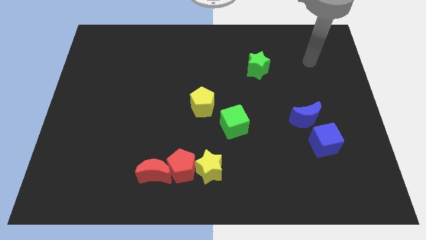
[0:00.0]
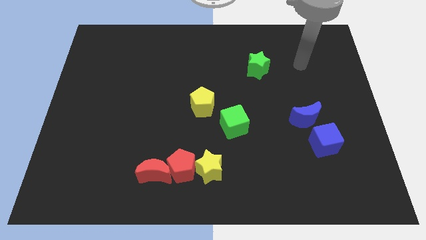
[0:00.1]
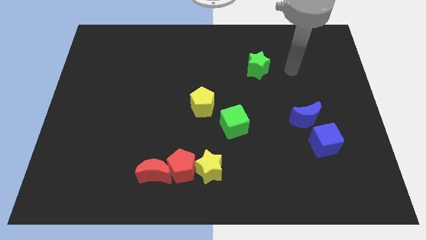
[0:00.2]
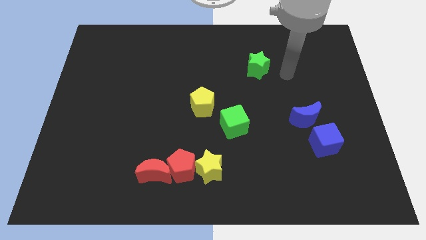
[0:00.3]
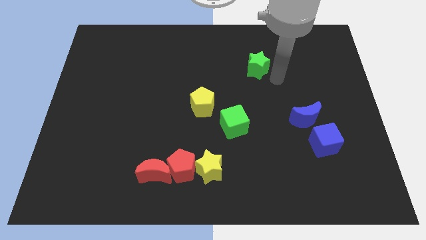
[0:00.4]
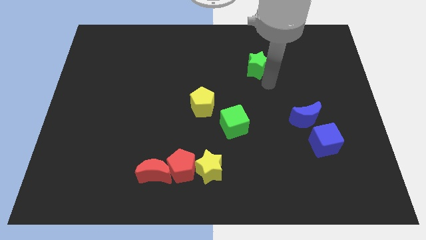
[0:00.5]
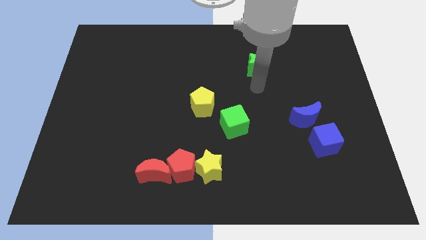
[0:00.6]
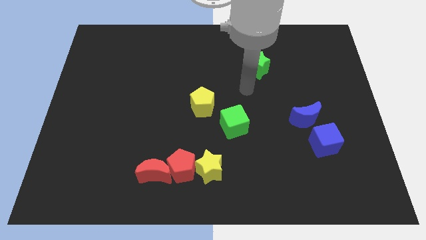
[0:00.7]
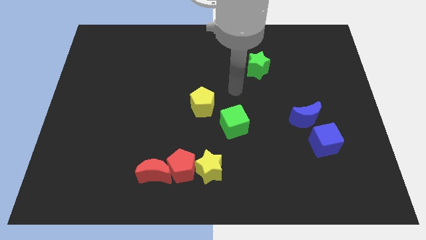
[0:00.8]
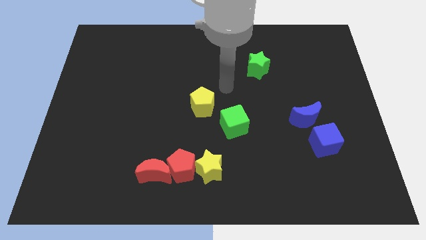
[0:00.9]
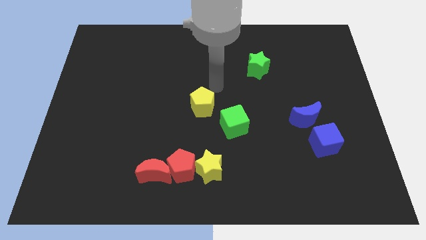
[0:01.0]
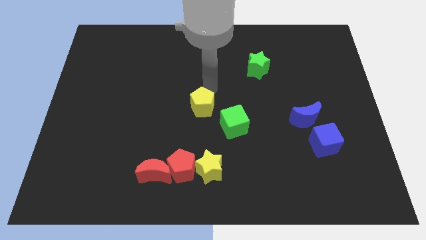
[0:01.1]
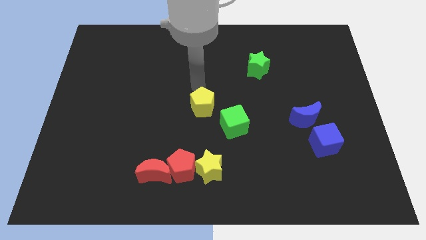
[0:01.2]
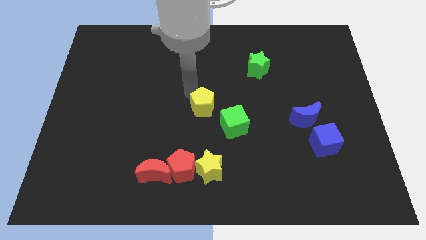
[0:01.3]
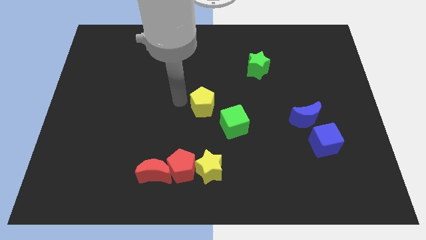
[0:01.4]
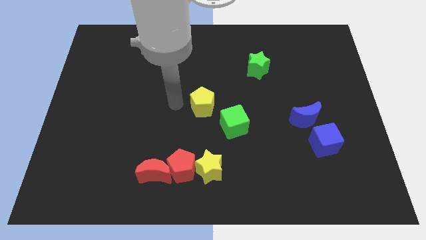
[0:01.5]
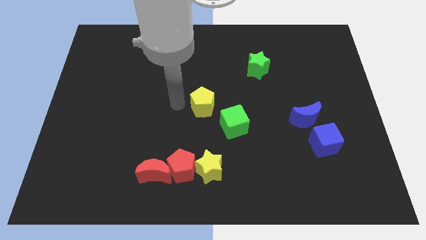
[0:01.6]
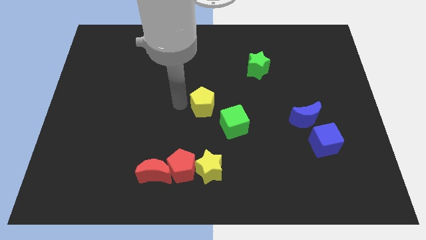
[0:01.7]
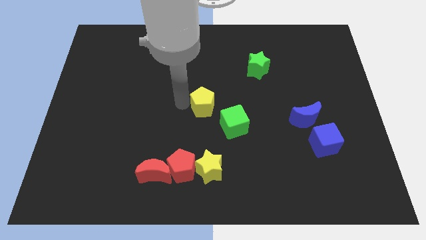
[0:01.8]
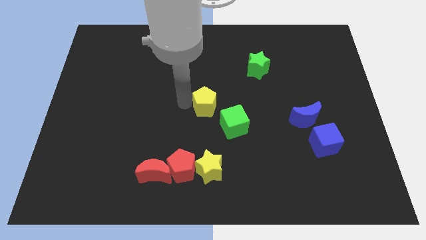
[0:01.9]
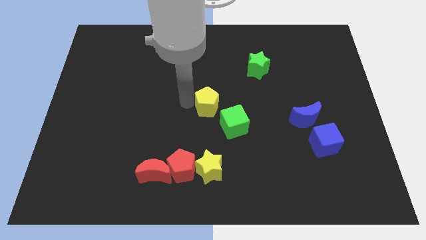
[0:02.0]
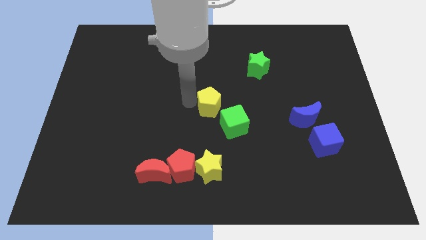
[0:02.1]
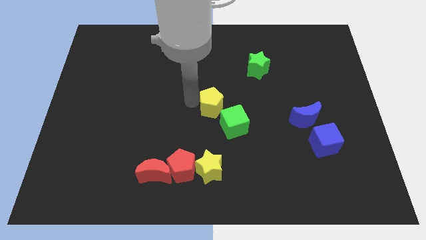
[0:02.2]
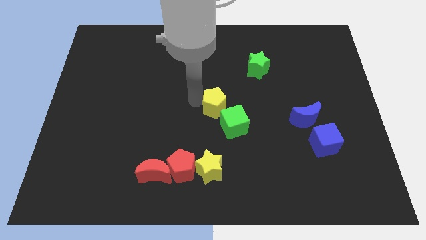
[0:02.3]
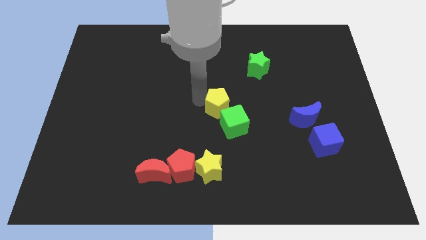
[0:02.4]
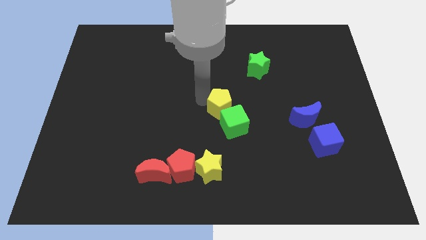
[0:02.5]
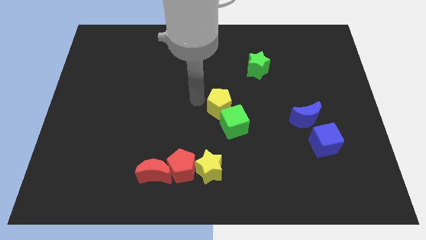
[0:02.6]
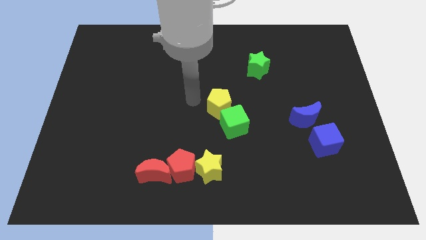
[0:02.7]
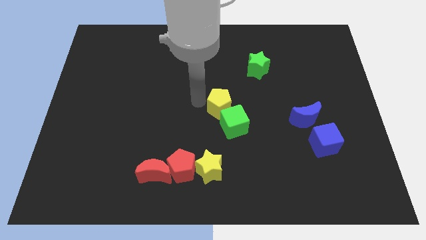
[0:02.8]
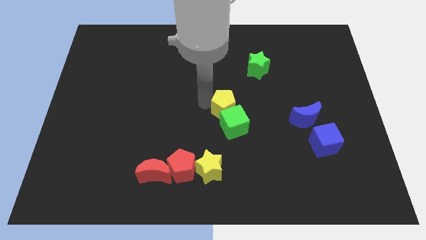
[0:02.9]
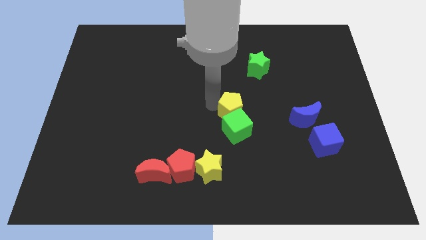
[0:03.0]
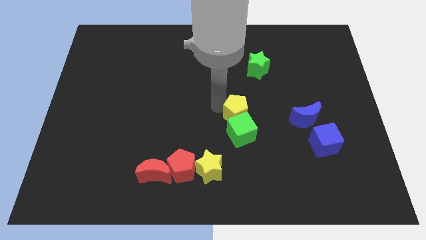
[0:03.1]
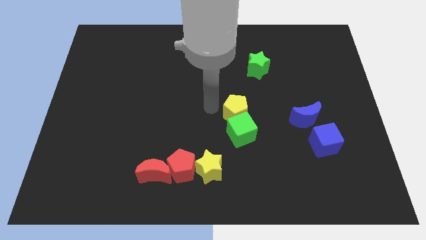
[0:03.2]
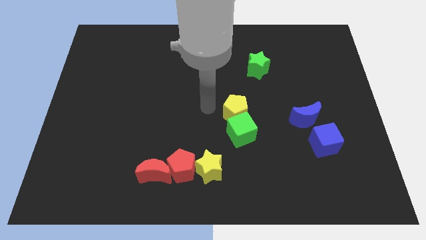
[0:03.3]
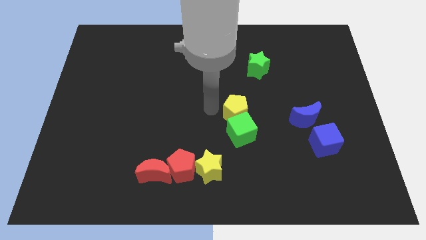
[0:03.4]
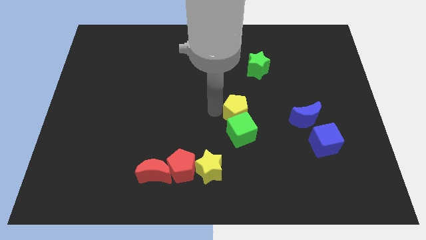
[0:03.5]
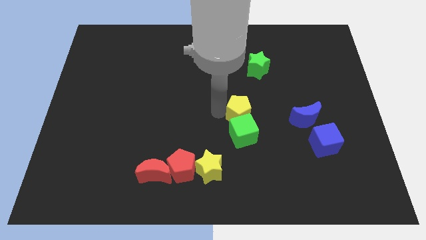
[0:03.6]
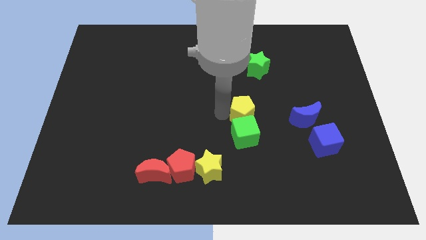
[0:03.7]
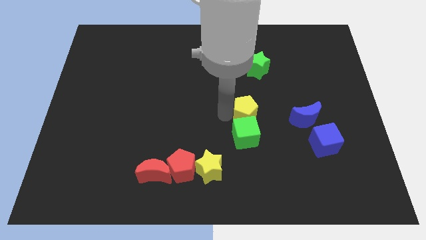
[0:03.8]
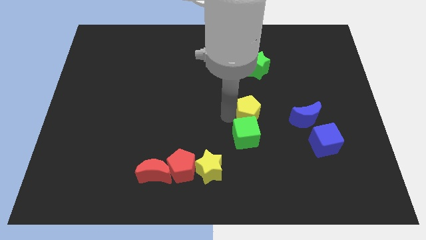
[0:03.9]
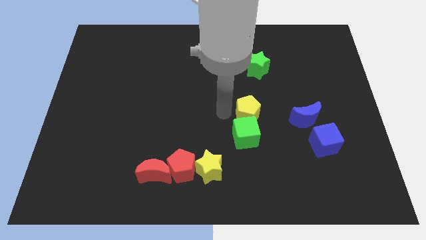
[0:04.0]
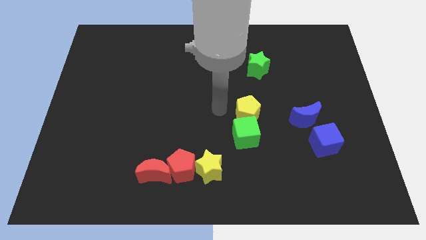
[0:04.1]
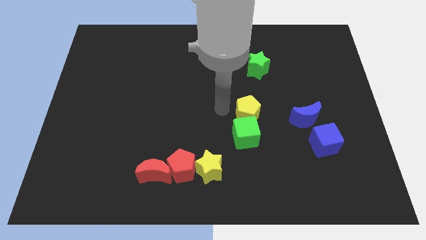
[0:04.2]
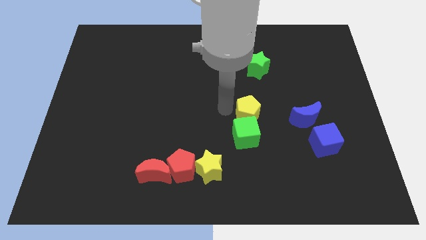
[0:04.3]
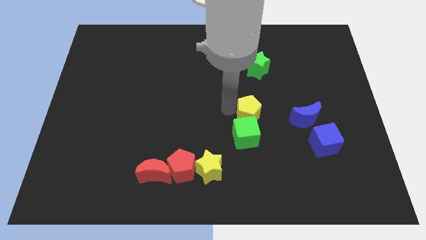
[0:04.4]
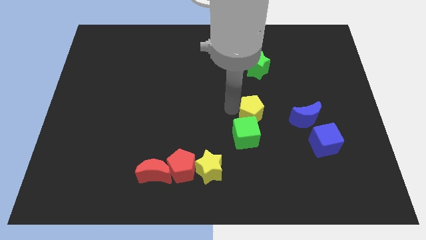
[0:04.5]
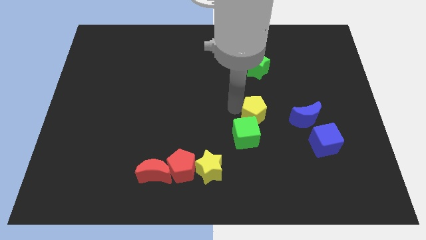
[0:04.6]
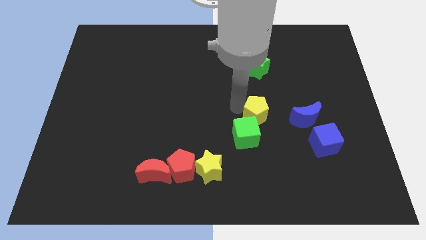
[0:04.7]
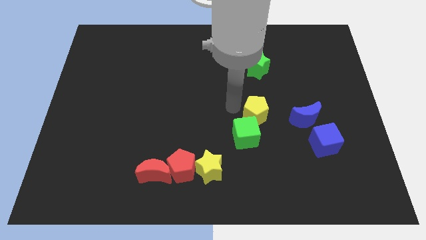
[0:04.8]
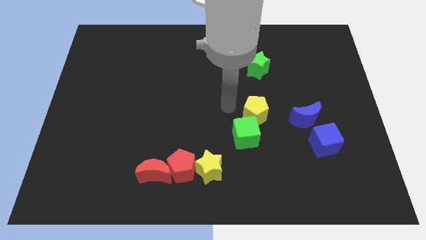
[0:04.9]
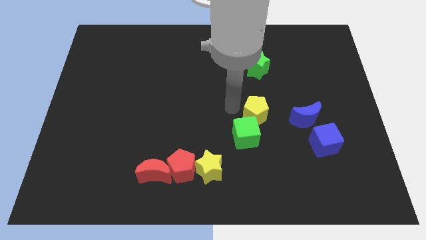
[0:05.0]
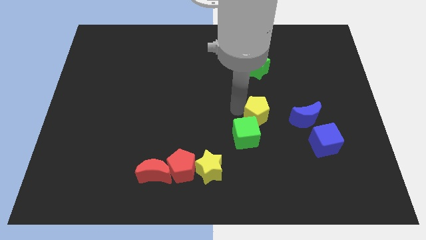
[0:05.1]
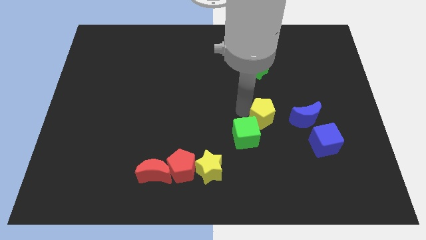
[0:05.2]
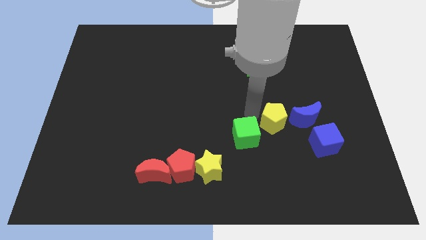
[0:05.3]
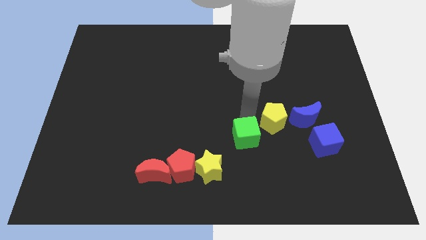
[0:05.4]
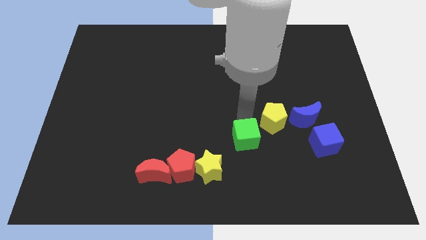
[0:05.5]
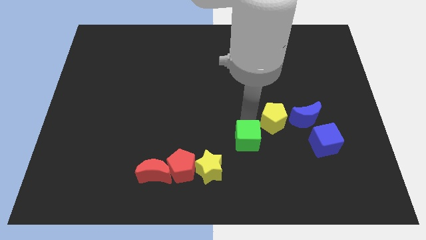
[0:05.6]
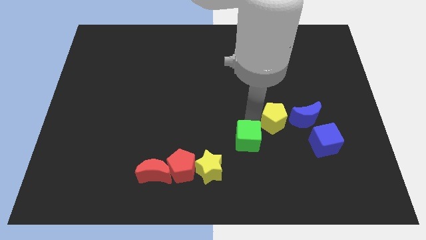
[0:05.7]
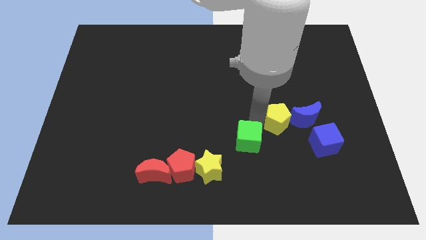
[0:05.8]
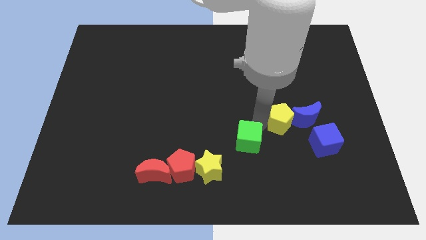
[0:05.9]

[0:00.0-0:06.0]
move the yellow pentagon to the blue moon

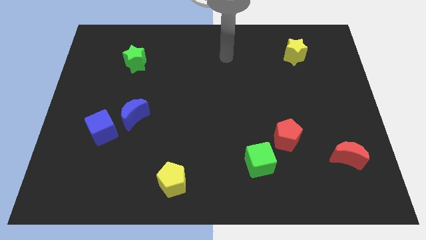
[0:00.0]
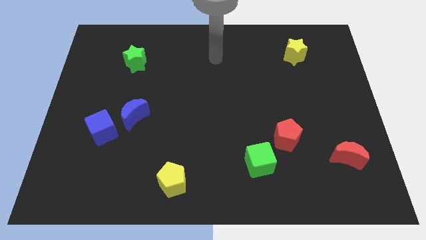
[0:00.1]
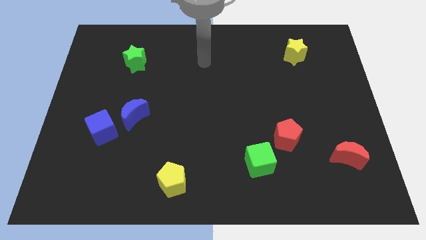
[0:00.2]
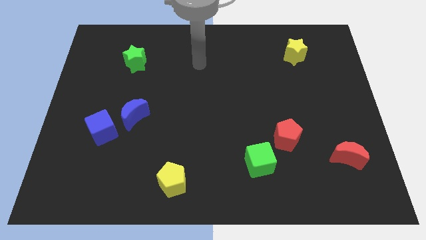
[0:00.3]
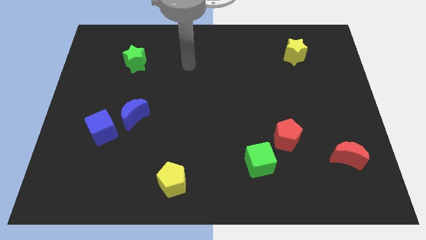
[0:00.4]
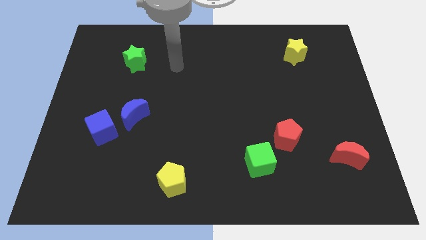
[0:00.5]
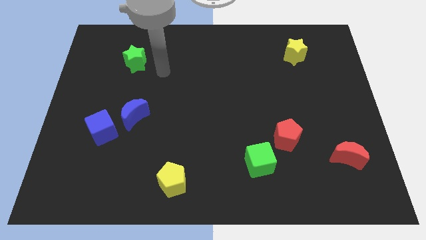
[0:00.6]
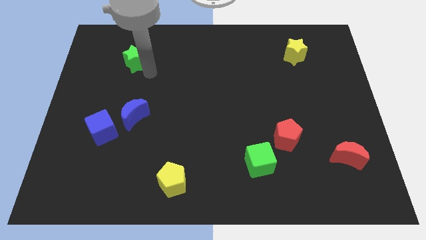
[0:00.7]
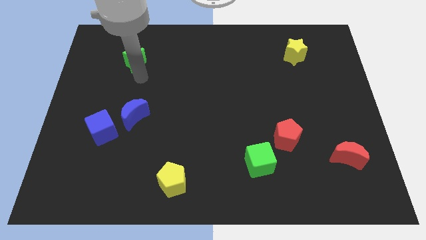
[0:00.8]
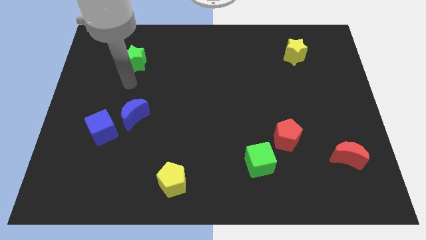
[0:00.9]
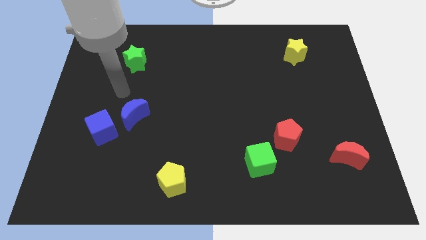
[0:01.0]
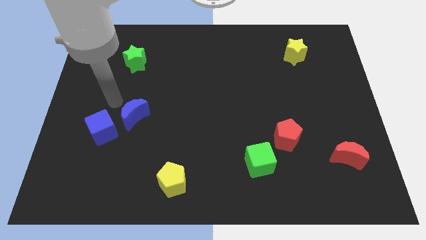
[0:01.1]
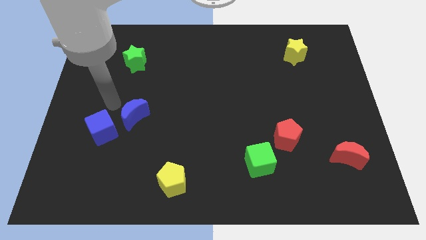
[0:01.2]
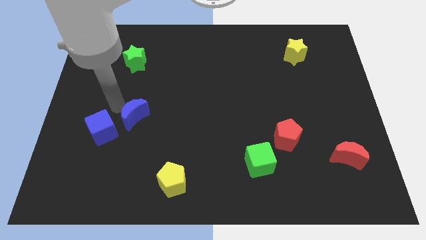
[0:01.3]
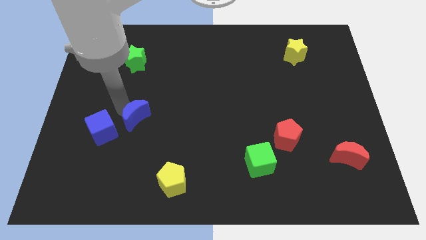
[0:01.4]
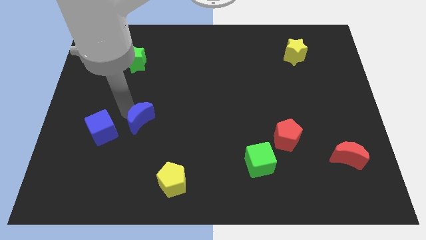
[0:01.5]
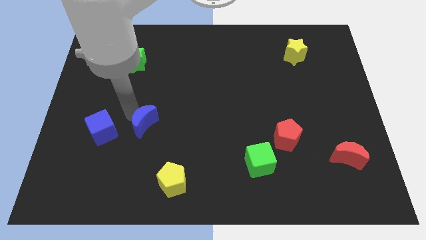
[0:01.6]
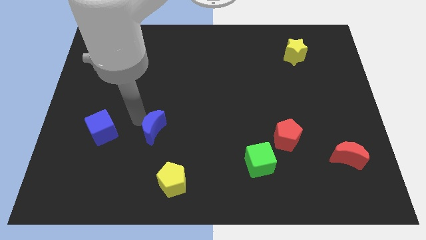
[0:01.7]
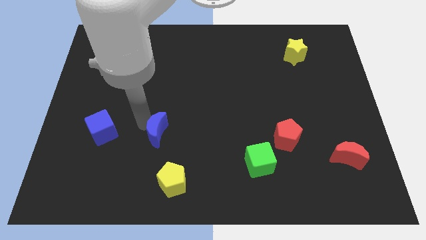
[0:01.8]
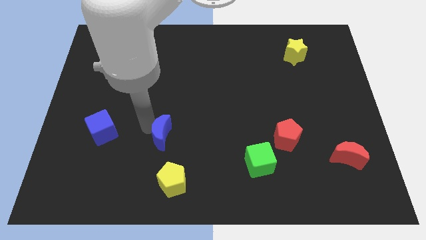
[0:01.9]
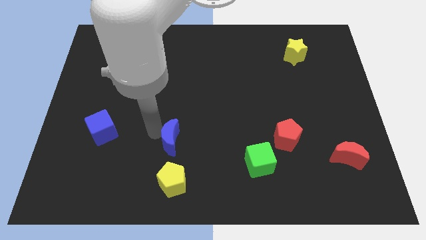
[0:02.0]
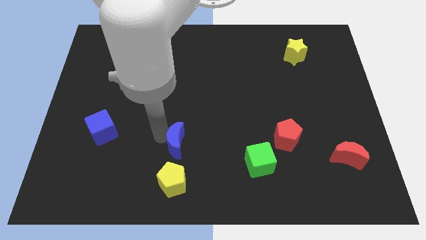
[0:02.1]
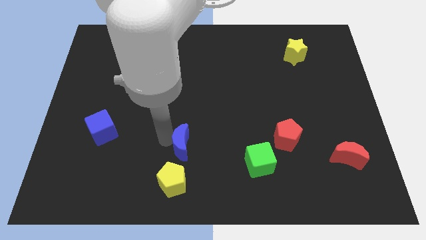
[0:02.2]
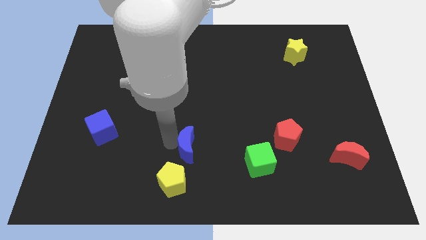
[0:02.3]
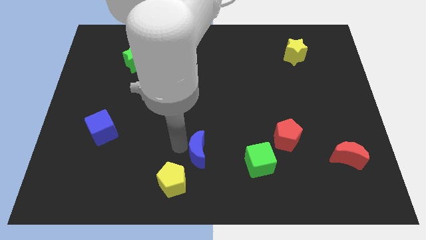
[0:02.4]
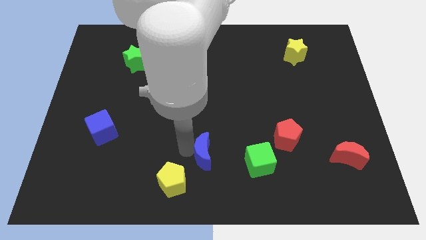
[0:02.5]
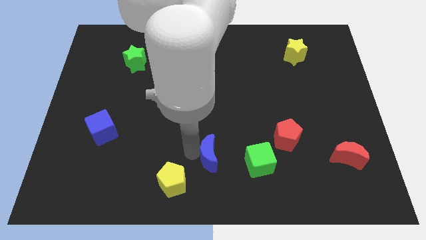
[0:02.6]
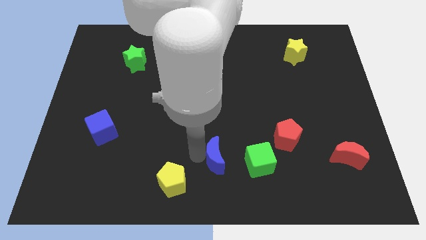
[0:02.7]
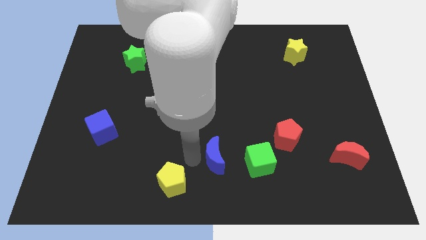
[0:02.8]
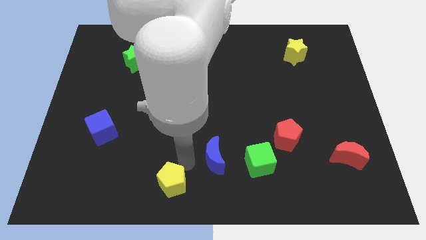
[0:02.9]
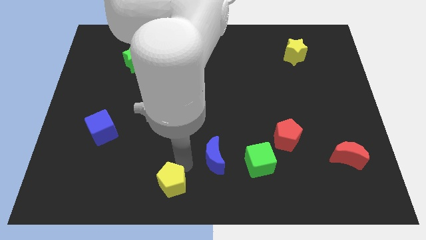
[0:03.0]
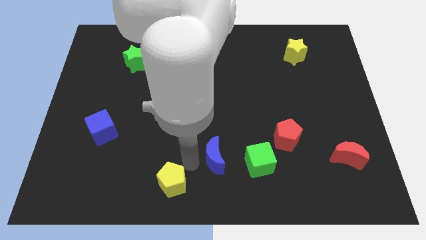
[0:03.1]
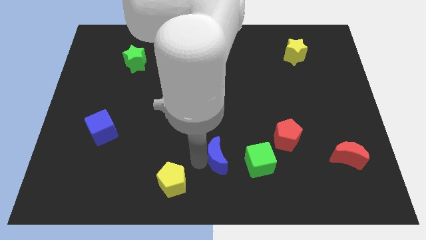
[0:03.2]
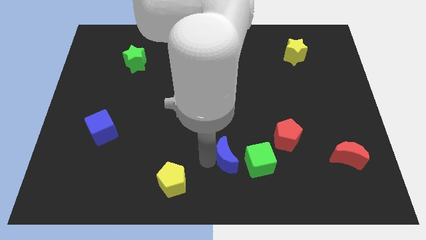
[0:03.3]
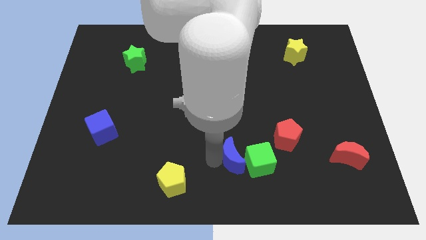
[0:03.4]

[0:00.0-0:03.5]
push the blue moon next to the green cube
